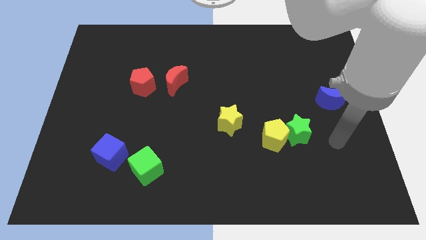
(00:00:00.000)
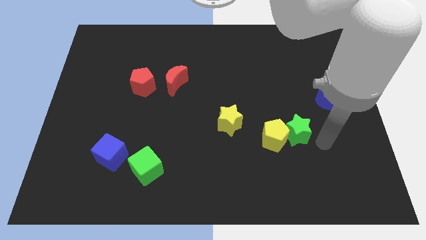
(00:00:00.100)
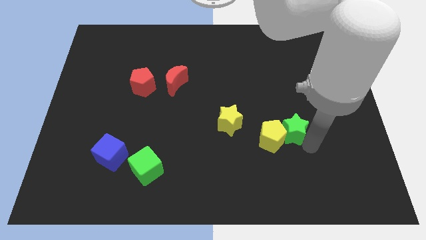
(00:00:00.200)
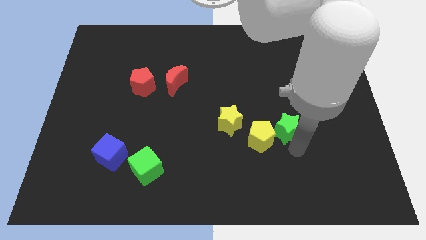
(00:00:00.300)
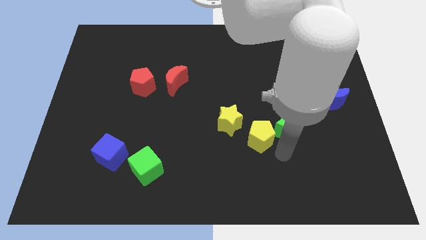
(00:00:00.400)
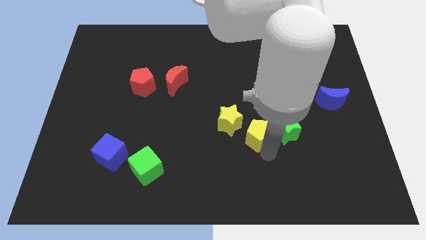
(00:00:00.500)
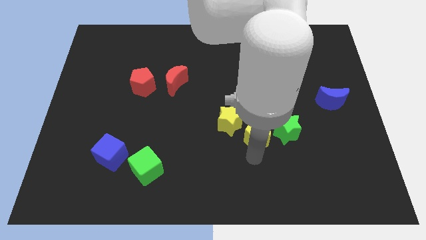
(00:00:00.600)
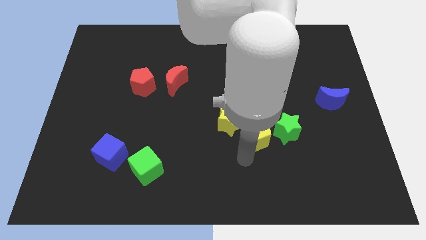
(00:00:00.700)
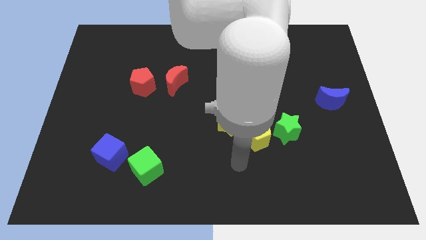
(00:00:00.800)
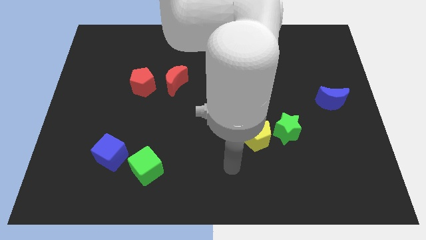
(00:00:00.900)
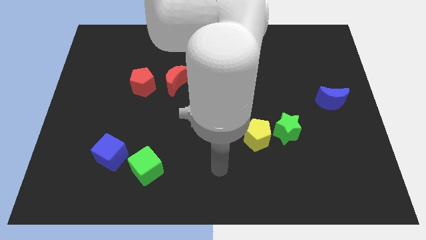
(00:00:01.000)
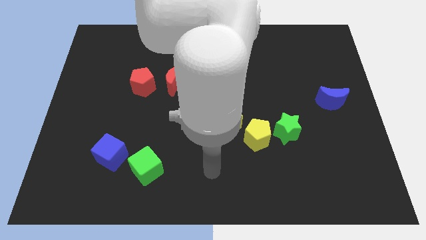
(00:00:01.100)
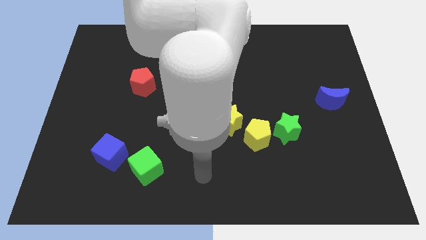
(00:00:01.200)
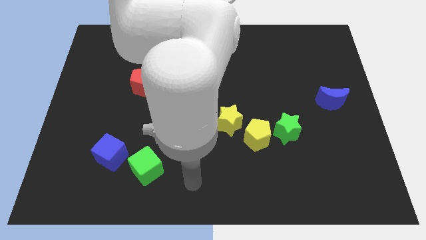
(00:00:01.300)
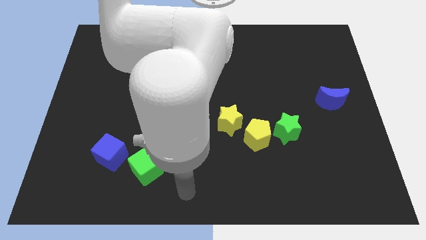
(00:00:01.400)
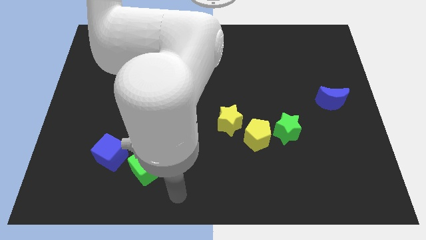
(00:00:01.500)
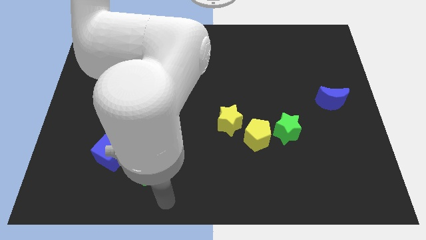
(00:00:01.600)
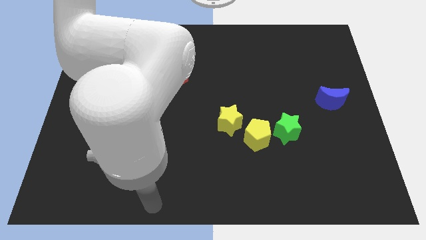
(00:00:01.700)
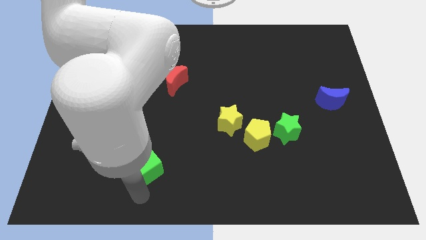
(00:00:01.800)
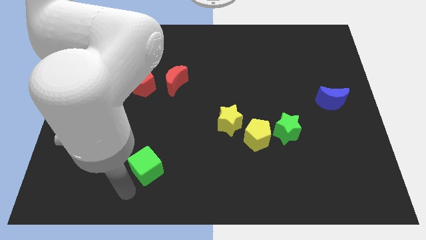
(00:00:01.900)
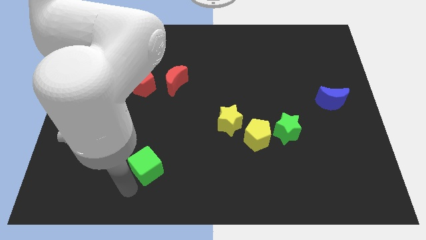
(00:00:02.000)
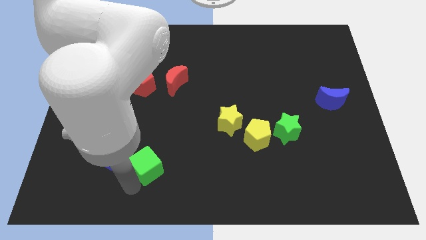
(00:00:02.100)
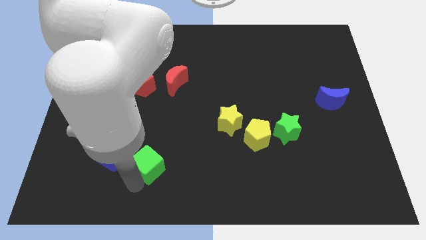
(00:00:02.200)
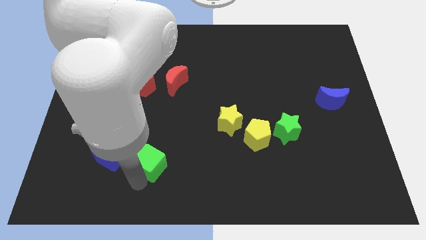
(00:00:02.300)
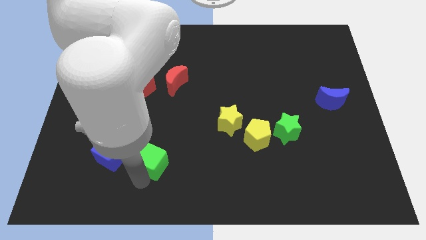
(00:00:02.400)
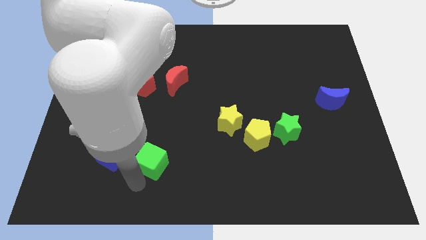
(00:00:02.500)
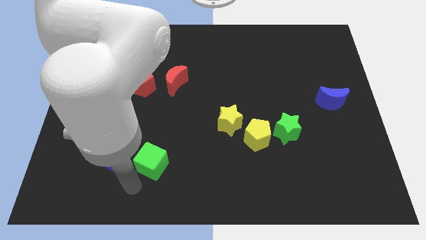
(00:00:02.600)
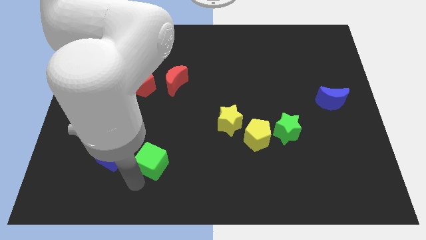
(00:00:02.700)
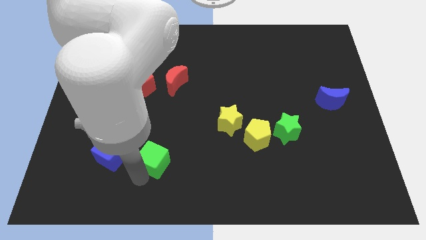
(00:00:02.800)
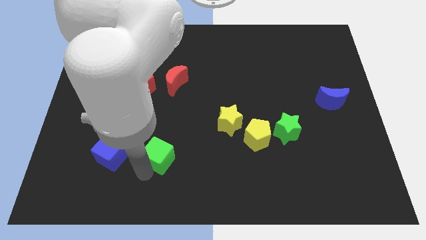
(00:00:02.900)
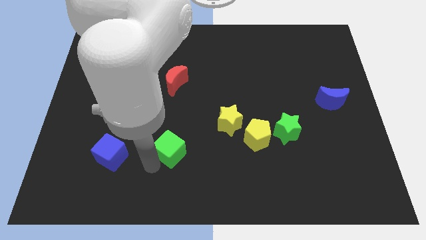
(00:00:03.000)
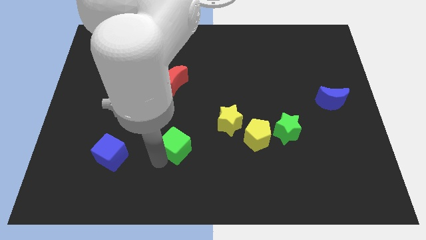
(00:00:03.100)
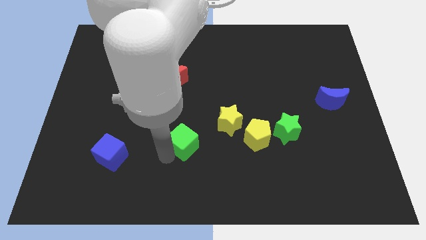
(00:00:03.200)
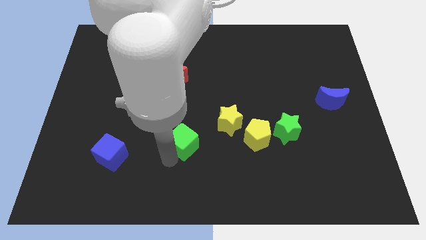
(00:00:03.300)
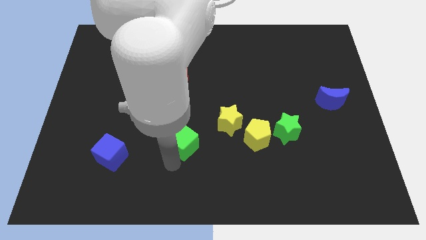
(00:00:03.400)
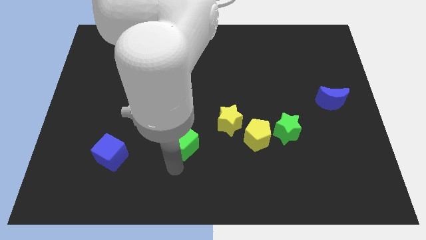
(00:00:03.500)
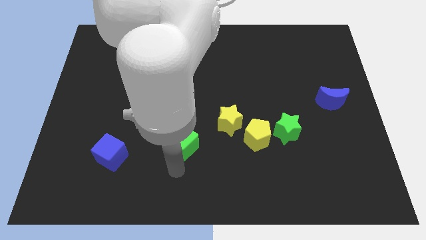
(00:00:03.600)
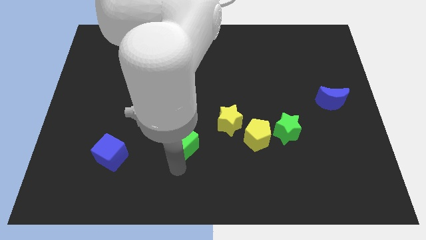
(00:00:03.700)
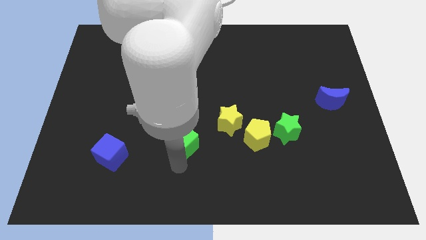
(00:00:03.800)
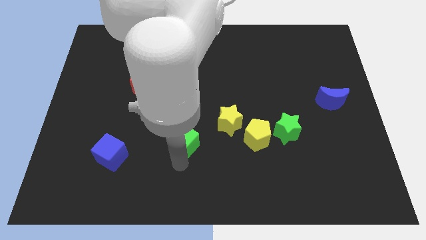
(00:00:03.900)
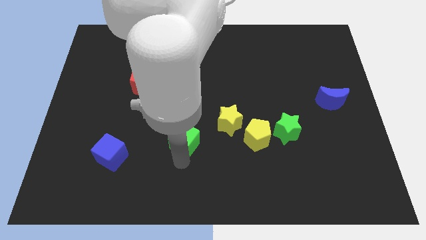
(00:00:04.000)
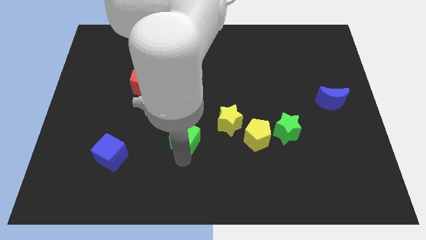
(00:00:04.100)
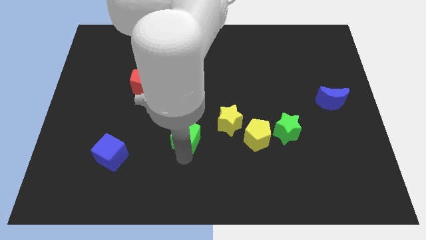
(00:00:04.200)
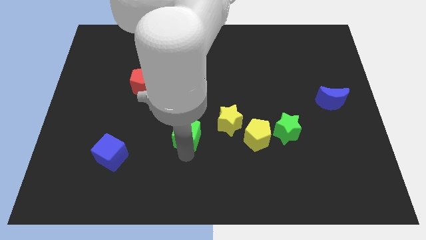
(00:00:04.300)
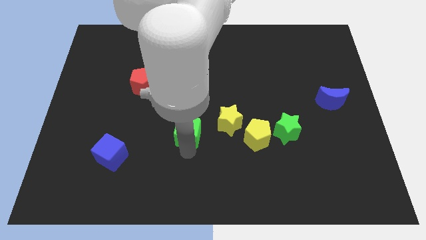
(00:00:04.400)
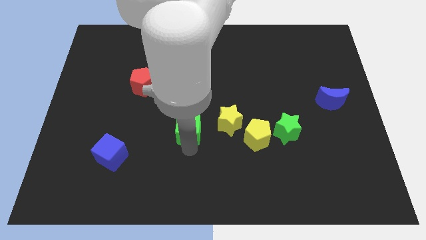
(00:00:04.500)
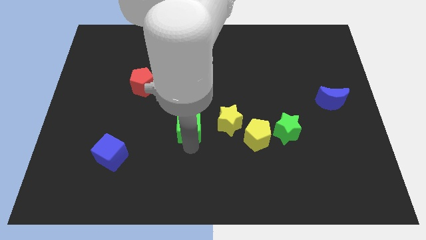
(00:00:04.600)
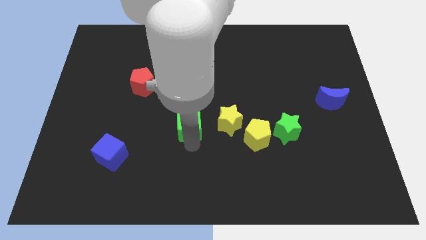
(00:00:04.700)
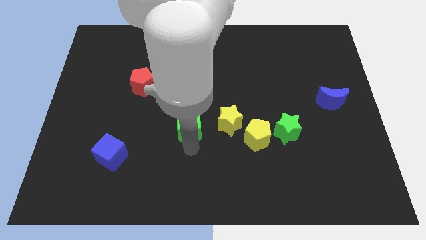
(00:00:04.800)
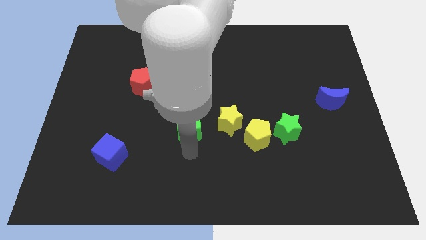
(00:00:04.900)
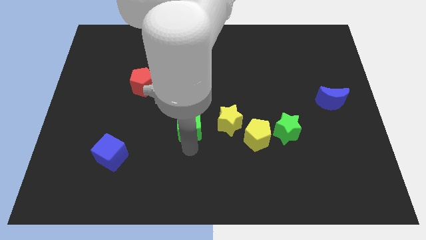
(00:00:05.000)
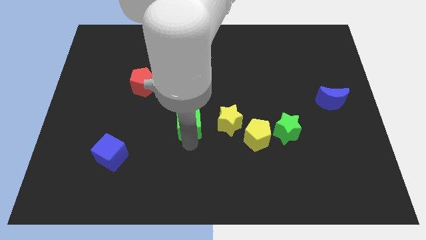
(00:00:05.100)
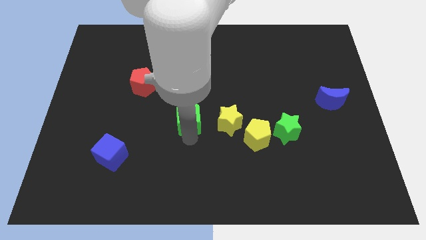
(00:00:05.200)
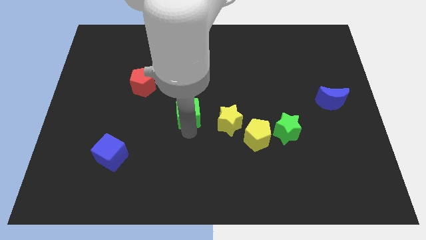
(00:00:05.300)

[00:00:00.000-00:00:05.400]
slide the green cube to the bottom right of the red moon

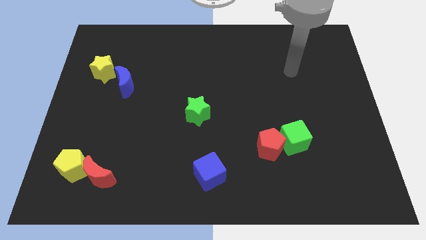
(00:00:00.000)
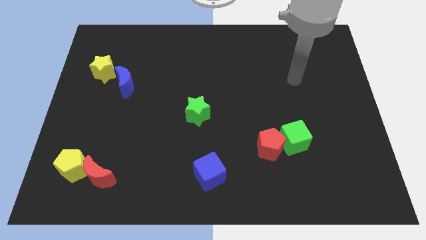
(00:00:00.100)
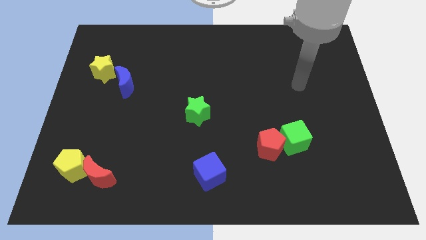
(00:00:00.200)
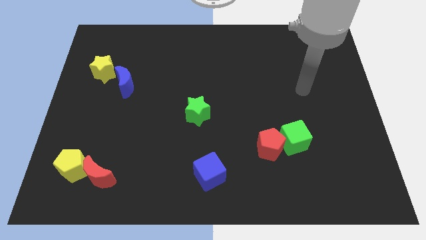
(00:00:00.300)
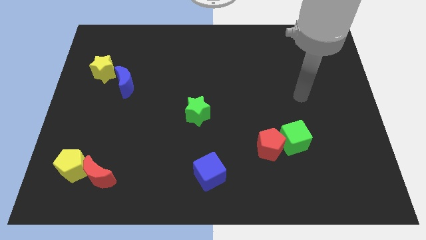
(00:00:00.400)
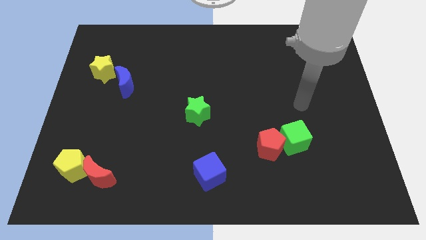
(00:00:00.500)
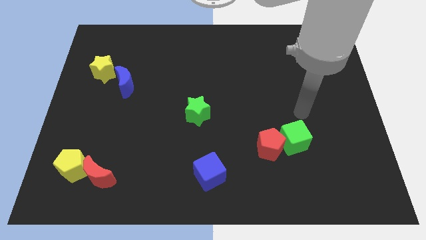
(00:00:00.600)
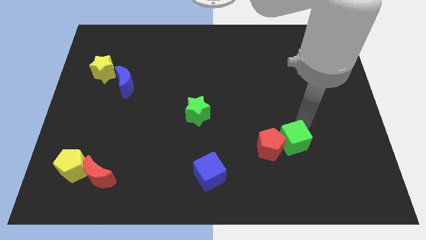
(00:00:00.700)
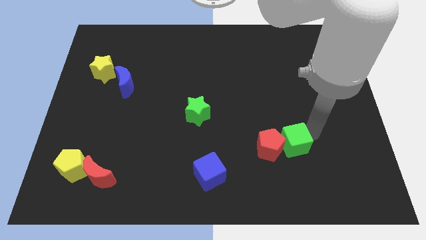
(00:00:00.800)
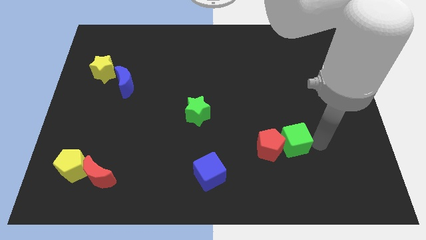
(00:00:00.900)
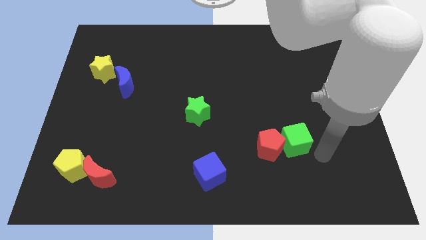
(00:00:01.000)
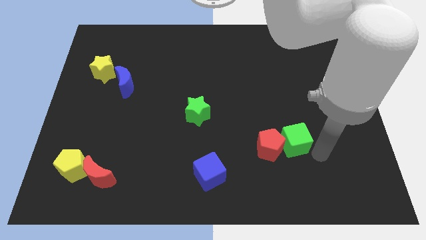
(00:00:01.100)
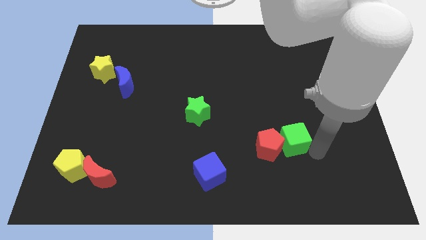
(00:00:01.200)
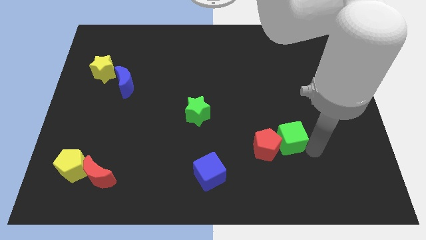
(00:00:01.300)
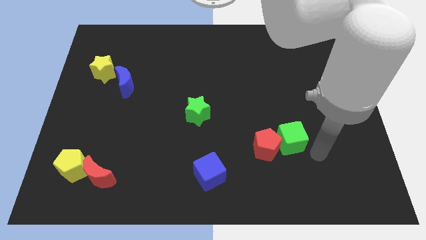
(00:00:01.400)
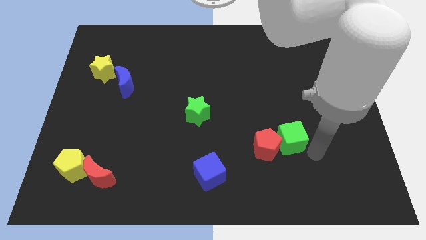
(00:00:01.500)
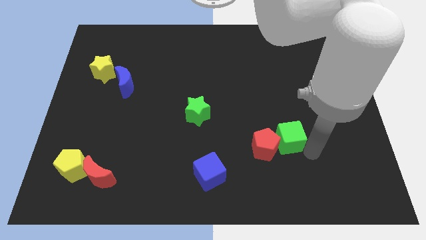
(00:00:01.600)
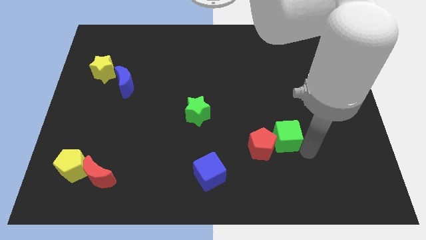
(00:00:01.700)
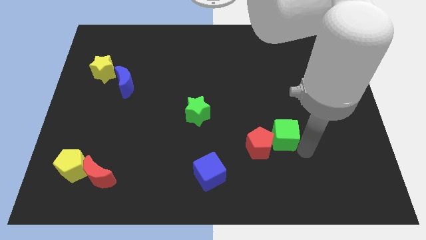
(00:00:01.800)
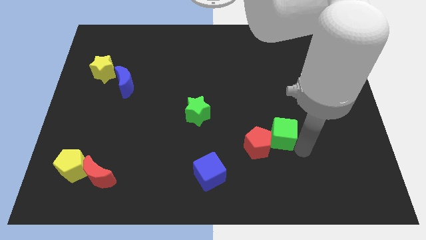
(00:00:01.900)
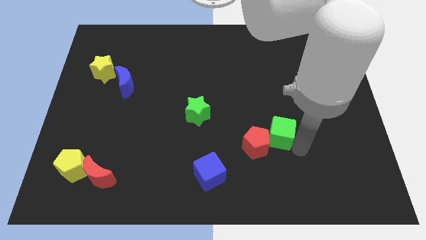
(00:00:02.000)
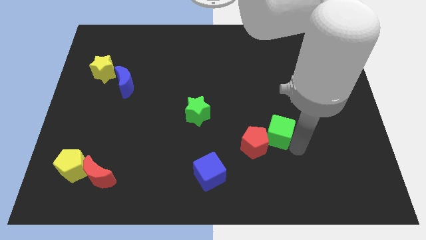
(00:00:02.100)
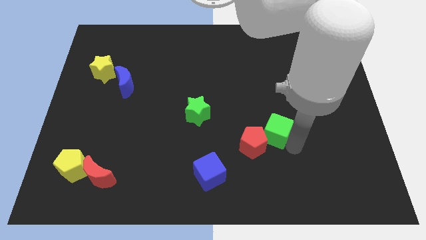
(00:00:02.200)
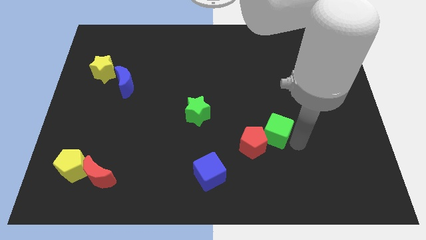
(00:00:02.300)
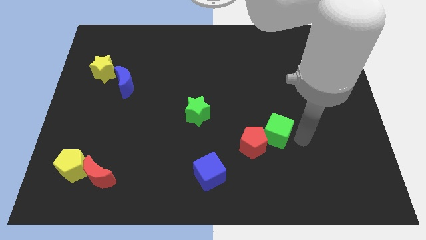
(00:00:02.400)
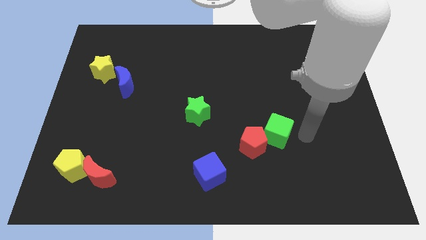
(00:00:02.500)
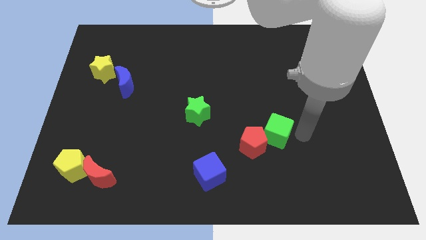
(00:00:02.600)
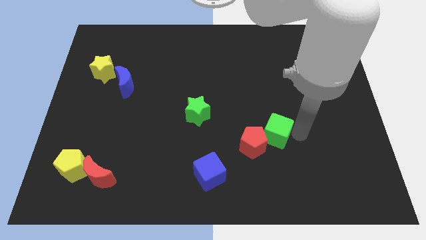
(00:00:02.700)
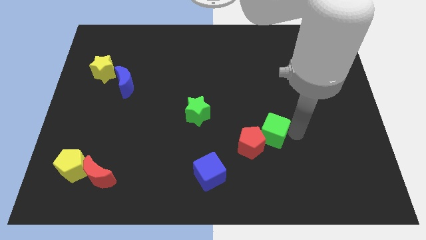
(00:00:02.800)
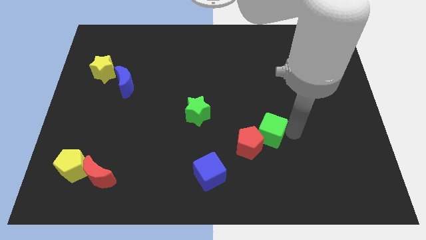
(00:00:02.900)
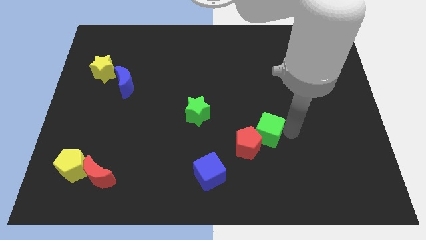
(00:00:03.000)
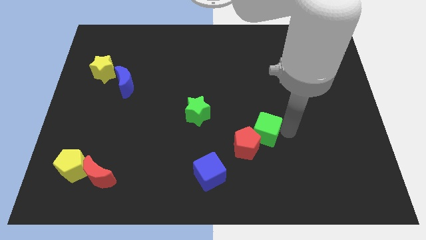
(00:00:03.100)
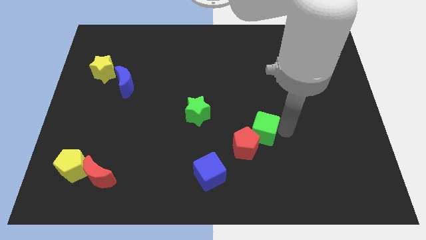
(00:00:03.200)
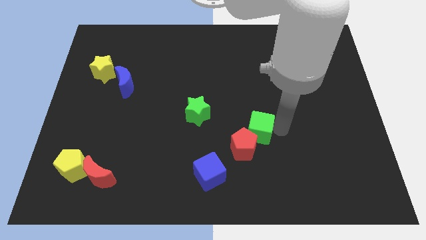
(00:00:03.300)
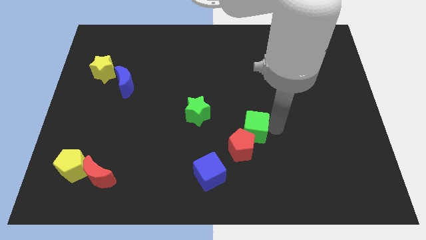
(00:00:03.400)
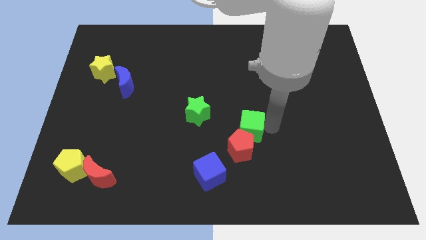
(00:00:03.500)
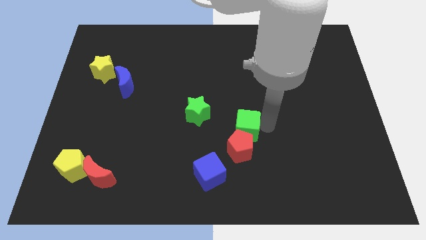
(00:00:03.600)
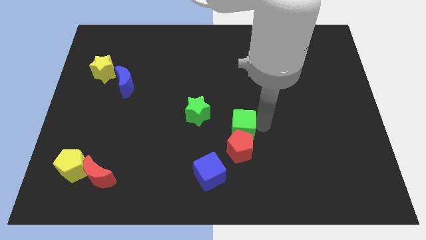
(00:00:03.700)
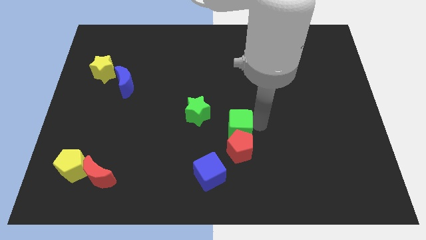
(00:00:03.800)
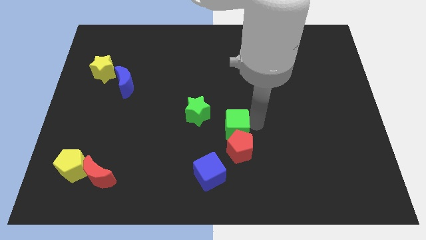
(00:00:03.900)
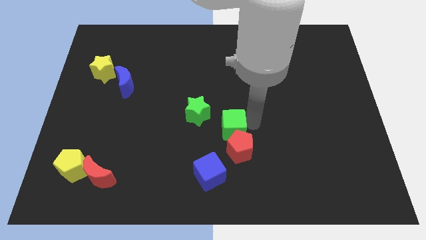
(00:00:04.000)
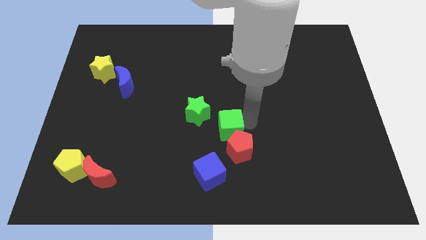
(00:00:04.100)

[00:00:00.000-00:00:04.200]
move the green cube to the top of the blue cube
